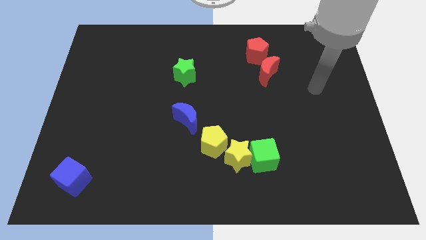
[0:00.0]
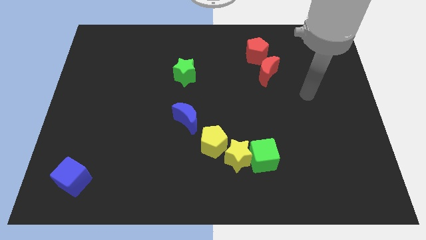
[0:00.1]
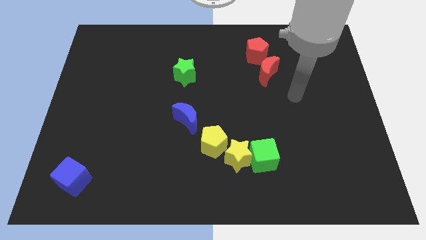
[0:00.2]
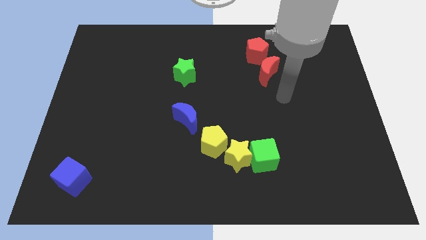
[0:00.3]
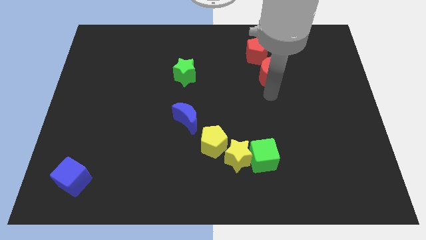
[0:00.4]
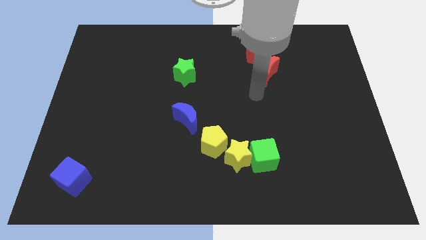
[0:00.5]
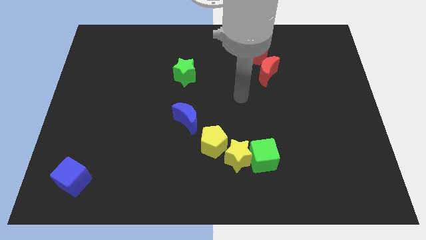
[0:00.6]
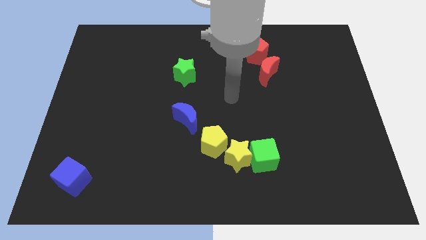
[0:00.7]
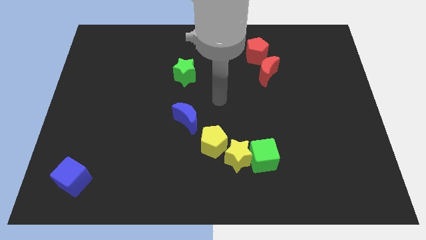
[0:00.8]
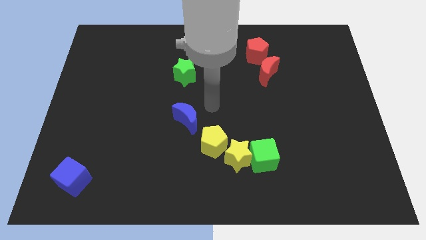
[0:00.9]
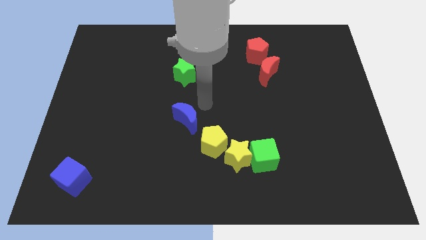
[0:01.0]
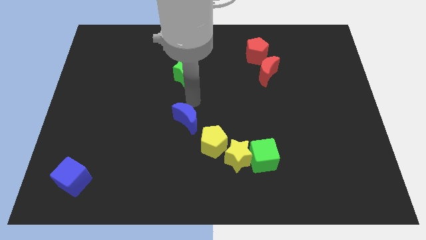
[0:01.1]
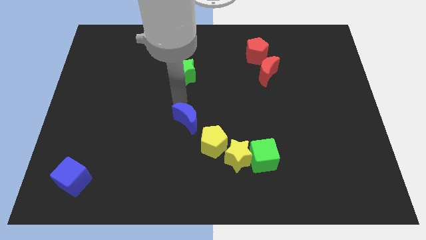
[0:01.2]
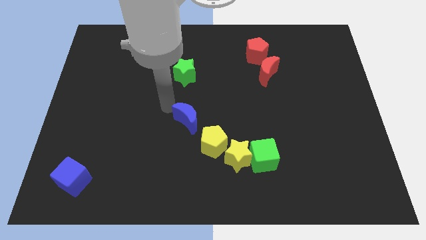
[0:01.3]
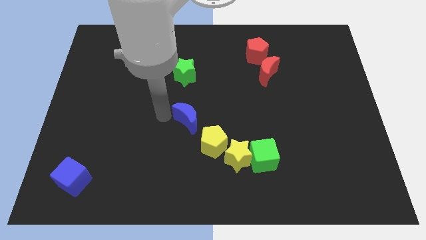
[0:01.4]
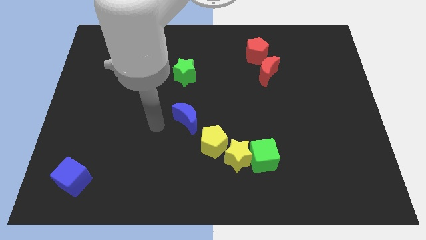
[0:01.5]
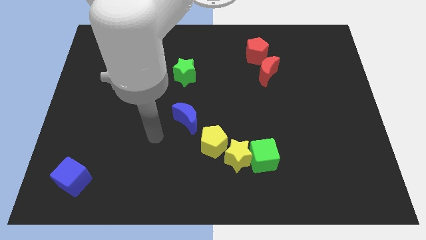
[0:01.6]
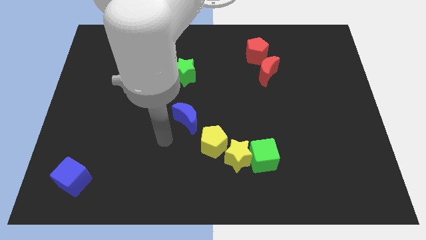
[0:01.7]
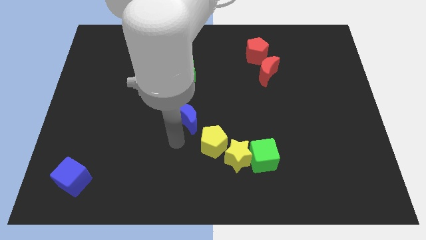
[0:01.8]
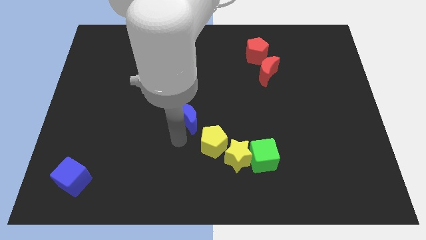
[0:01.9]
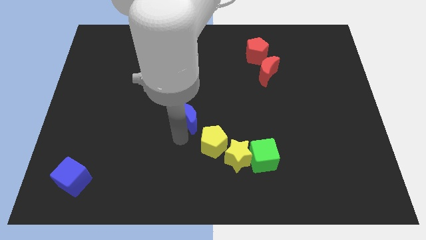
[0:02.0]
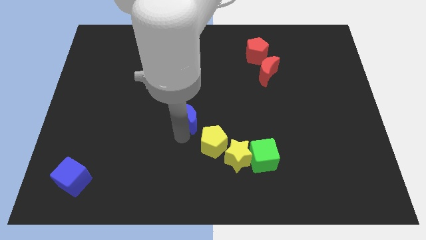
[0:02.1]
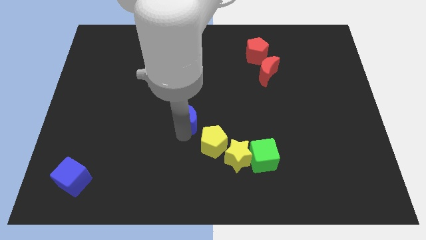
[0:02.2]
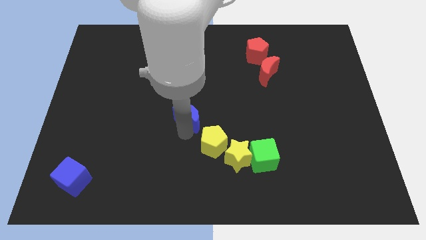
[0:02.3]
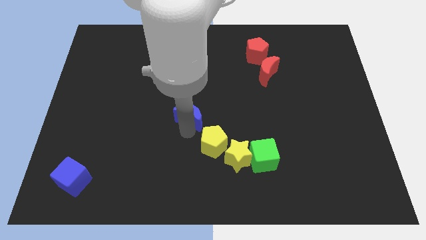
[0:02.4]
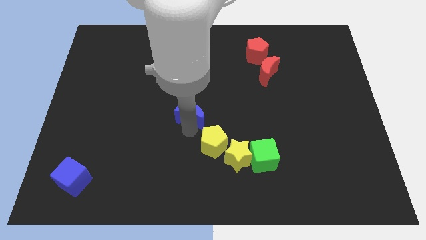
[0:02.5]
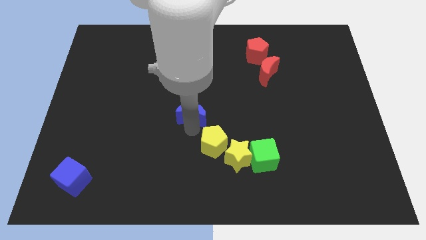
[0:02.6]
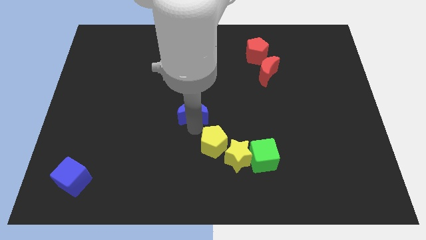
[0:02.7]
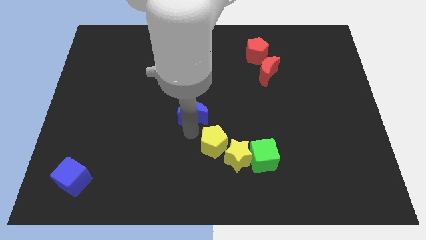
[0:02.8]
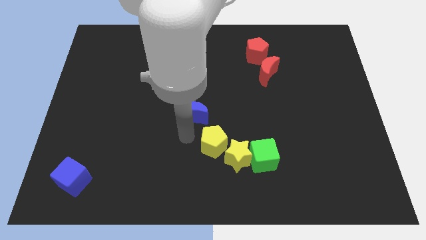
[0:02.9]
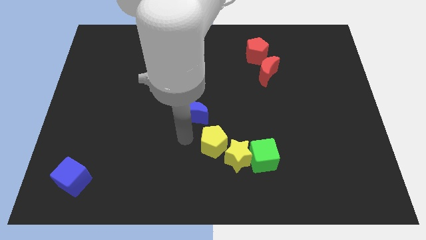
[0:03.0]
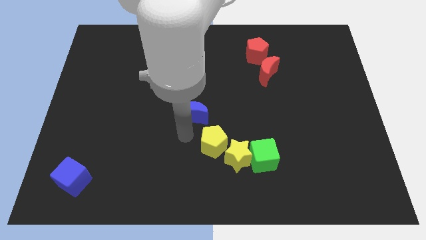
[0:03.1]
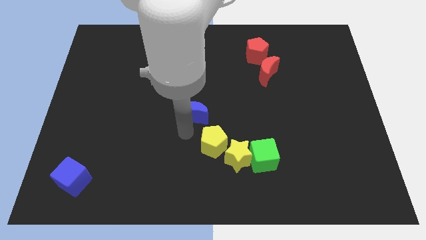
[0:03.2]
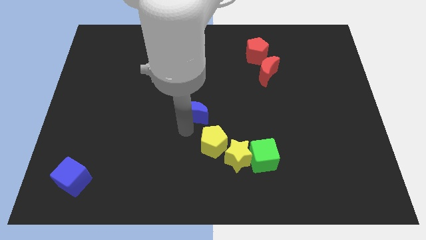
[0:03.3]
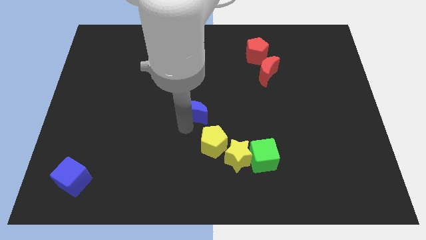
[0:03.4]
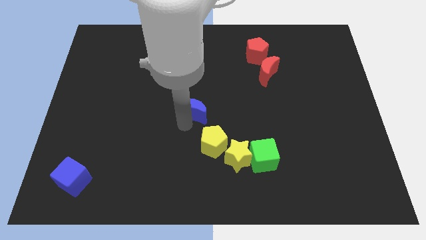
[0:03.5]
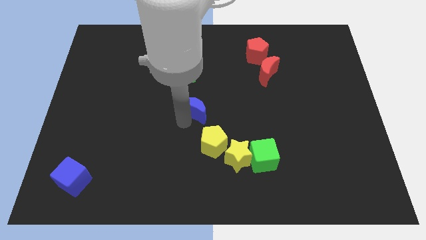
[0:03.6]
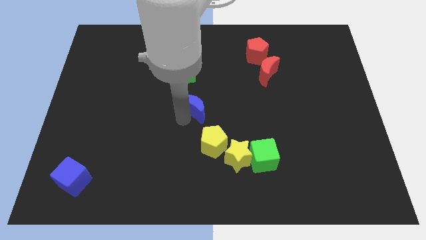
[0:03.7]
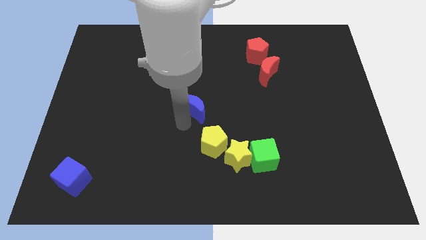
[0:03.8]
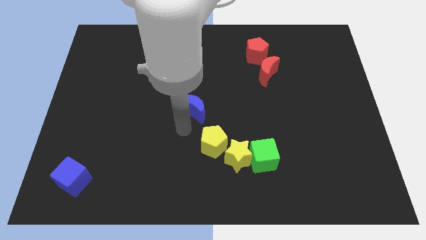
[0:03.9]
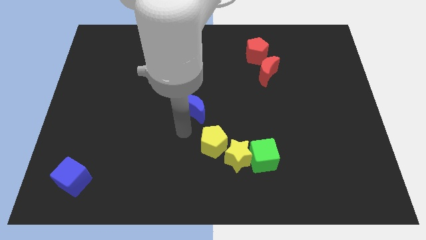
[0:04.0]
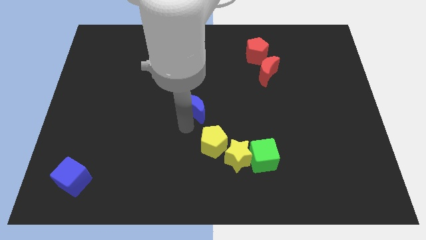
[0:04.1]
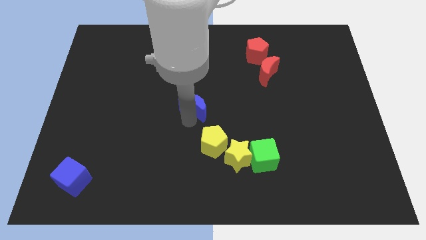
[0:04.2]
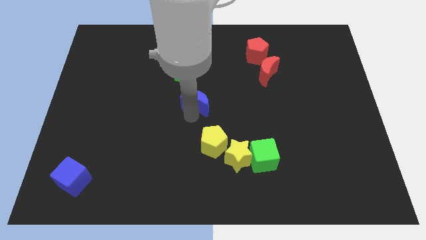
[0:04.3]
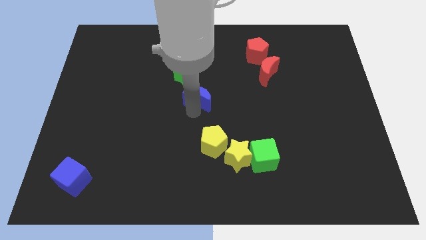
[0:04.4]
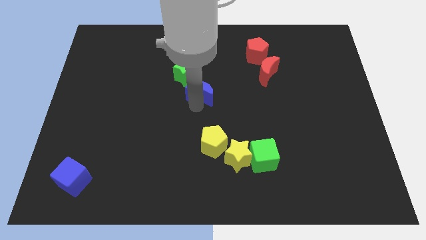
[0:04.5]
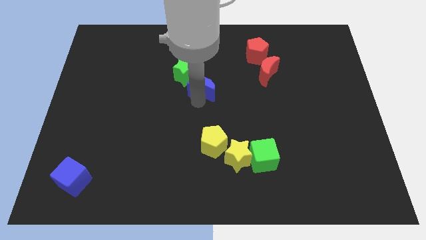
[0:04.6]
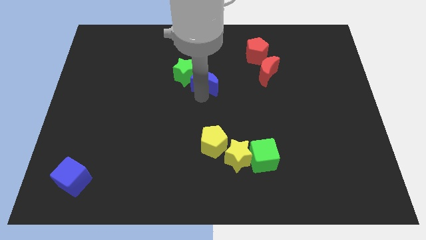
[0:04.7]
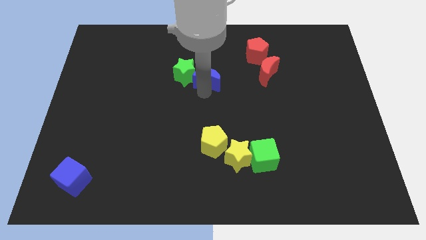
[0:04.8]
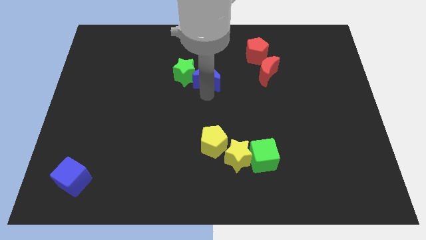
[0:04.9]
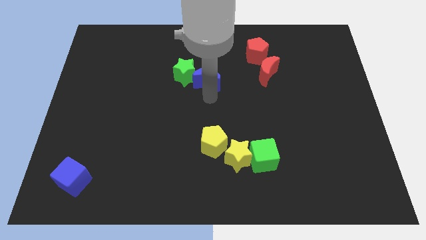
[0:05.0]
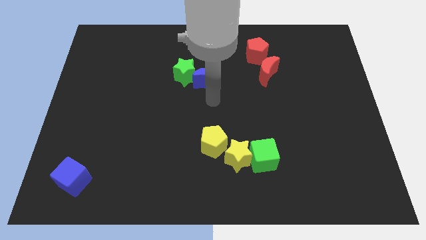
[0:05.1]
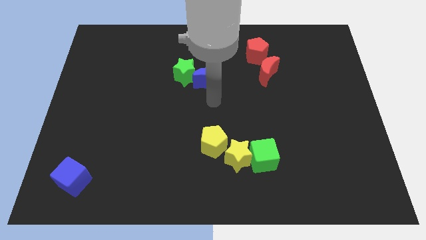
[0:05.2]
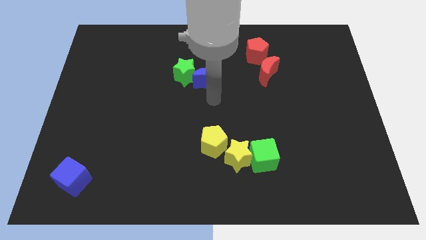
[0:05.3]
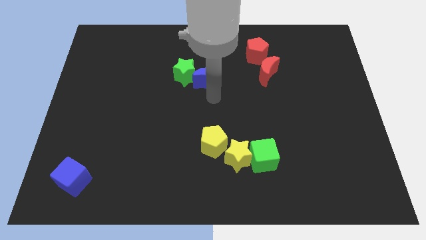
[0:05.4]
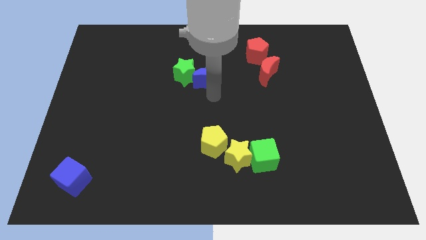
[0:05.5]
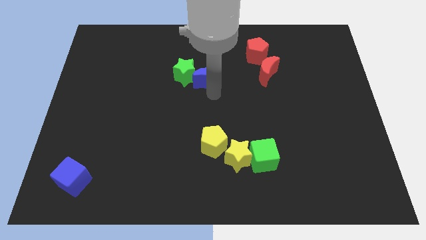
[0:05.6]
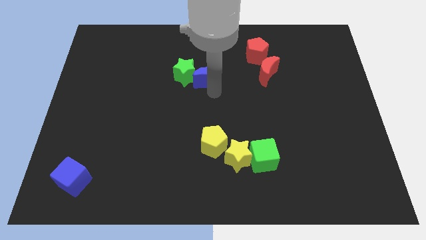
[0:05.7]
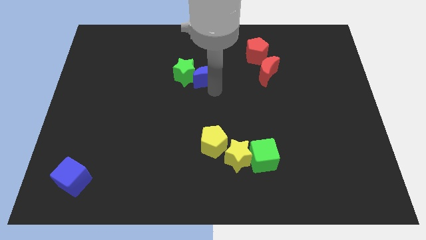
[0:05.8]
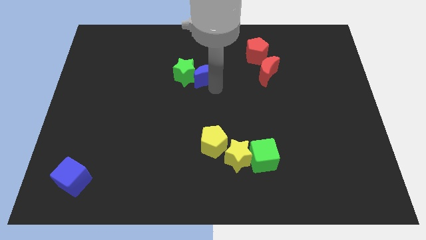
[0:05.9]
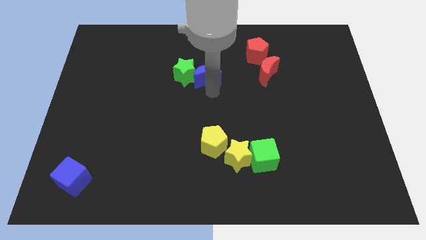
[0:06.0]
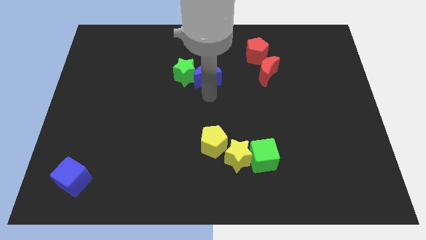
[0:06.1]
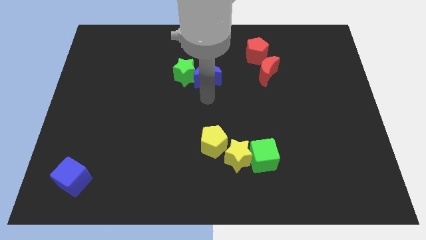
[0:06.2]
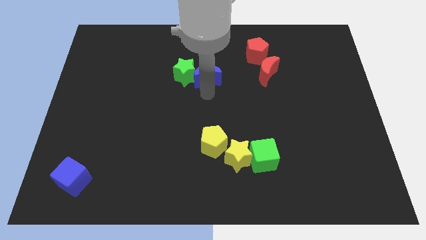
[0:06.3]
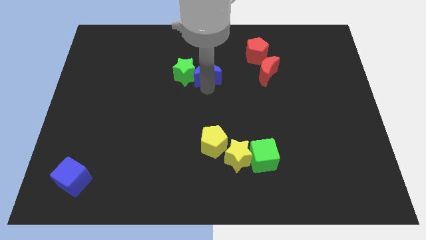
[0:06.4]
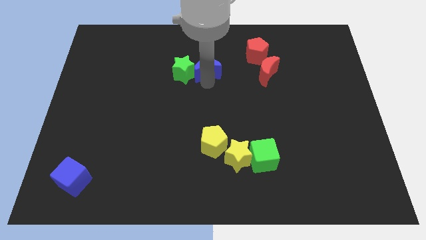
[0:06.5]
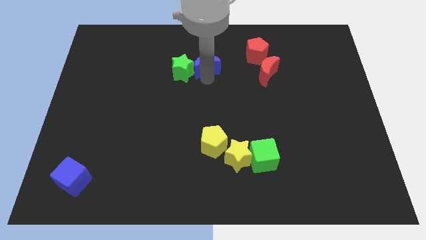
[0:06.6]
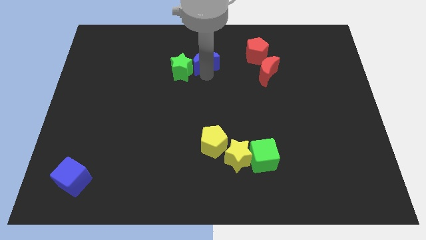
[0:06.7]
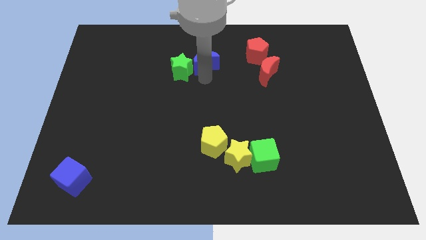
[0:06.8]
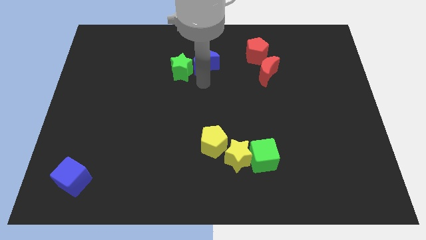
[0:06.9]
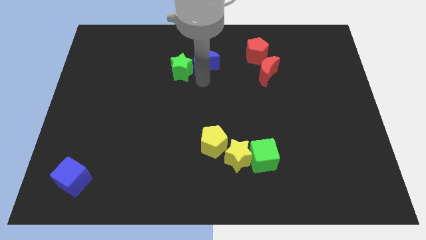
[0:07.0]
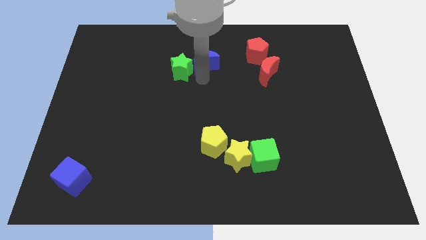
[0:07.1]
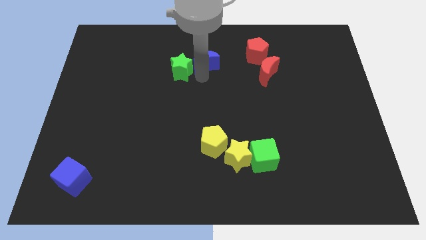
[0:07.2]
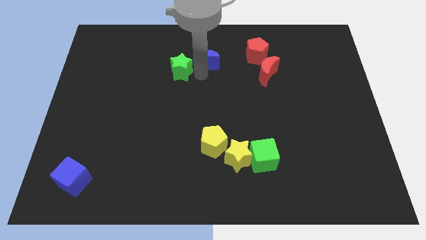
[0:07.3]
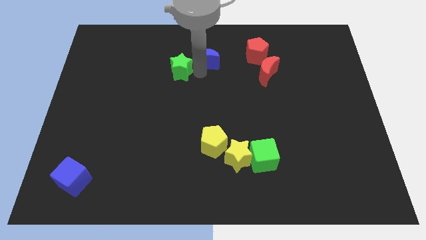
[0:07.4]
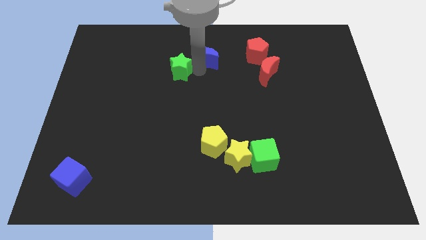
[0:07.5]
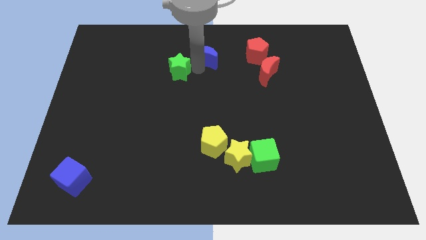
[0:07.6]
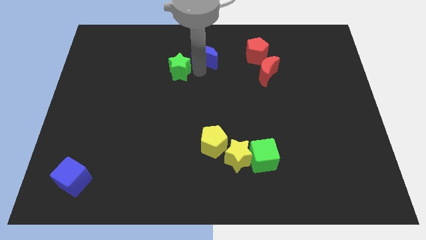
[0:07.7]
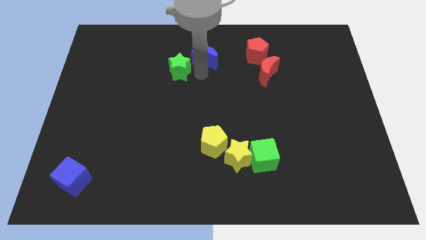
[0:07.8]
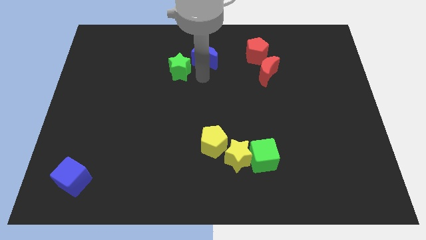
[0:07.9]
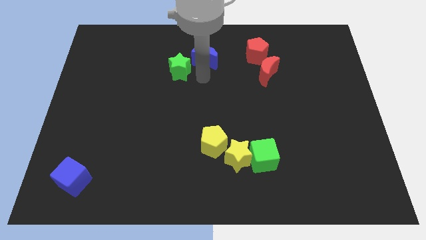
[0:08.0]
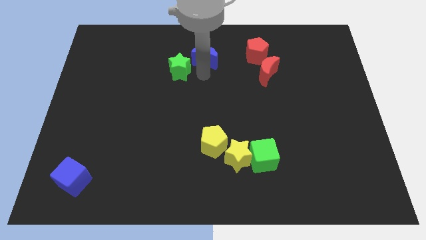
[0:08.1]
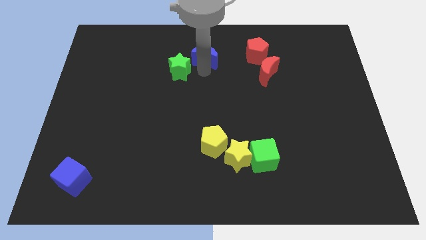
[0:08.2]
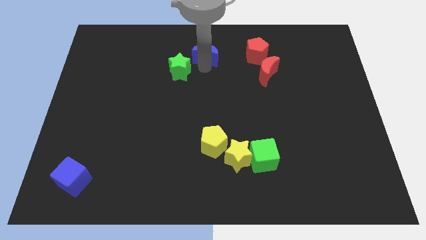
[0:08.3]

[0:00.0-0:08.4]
slide the blue moon to the top side
